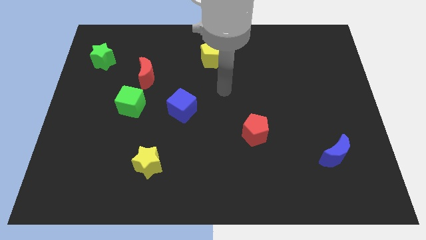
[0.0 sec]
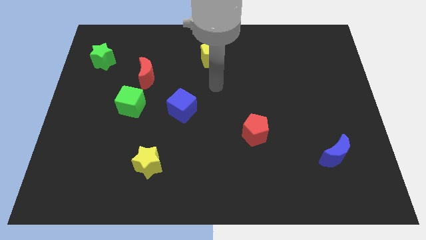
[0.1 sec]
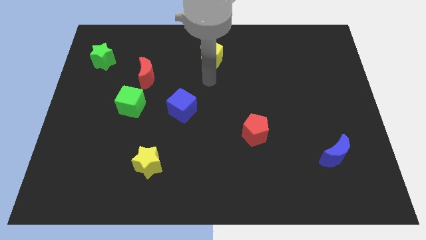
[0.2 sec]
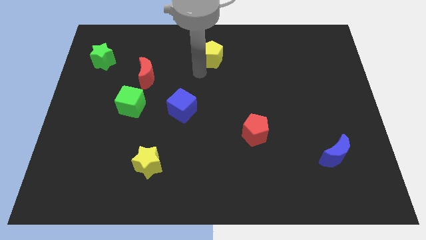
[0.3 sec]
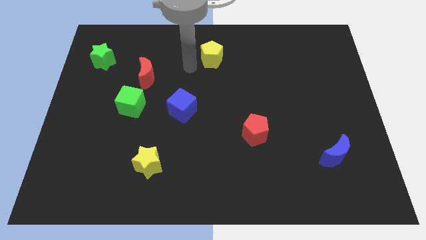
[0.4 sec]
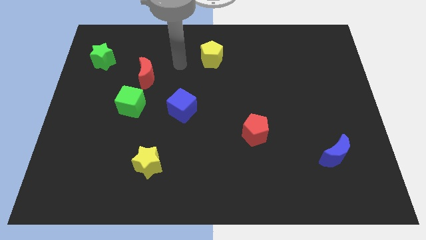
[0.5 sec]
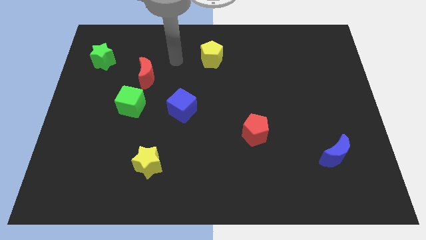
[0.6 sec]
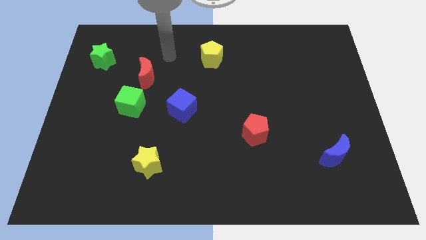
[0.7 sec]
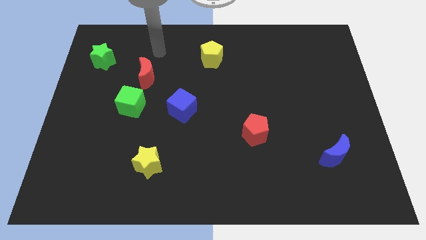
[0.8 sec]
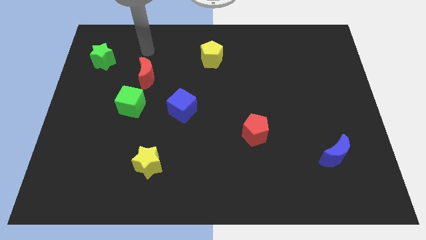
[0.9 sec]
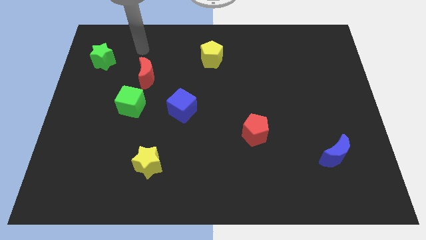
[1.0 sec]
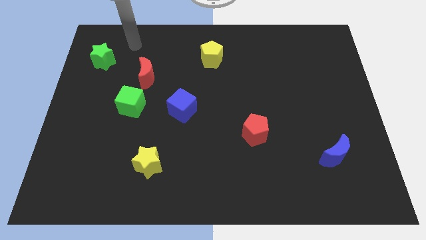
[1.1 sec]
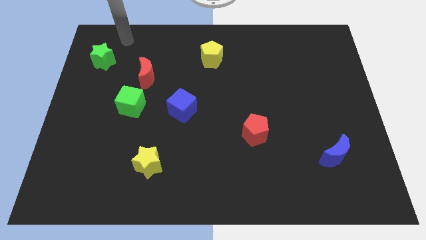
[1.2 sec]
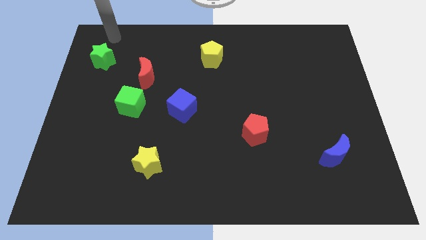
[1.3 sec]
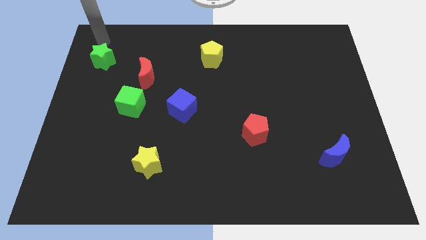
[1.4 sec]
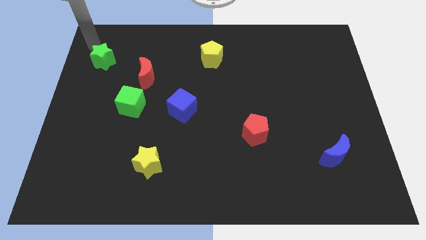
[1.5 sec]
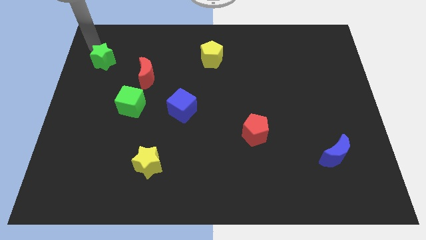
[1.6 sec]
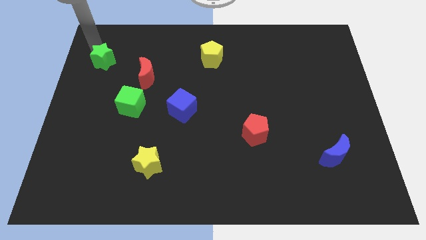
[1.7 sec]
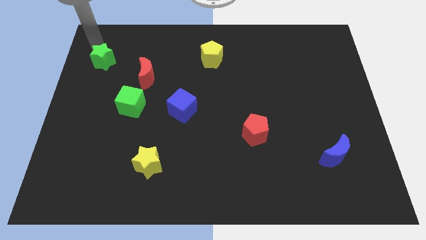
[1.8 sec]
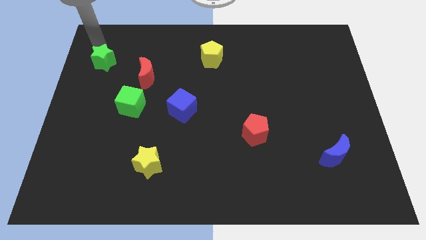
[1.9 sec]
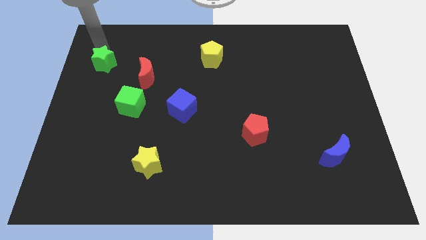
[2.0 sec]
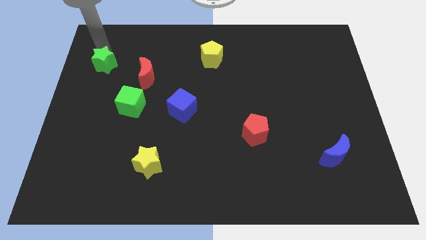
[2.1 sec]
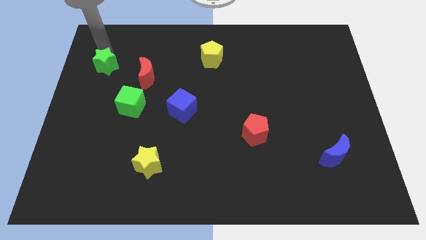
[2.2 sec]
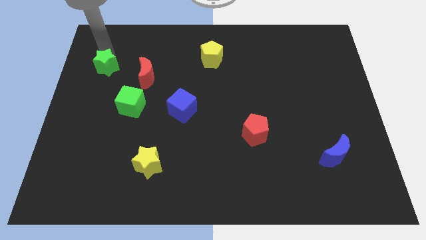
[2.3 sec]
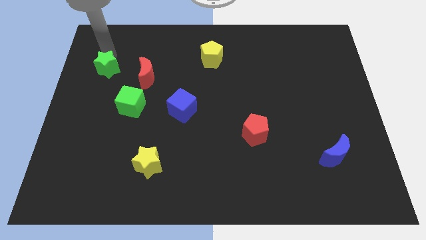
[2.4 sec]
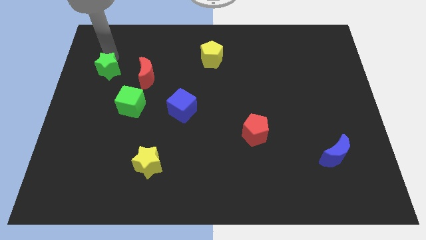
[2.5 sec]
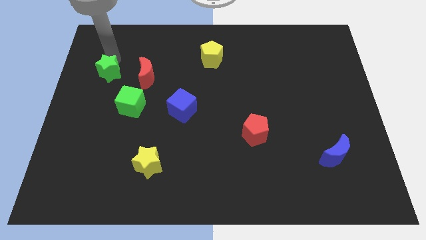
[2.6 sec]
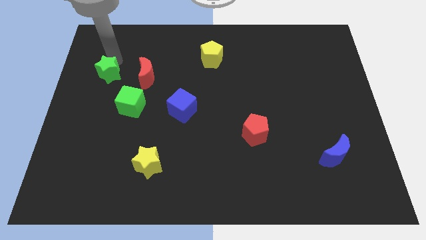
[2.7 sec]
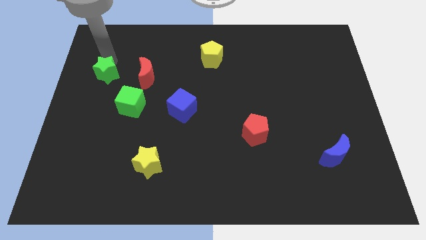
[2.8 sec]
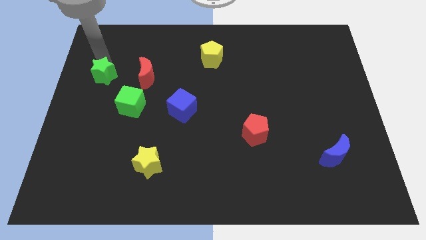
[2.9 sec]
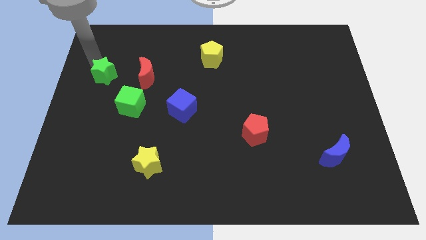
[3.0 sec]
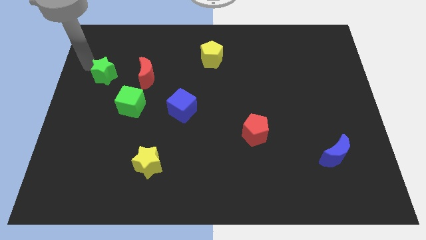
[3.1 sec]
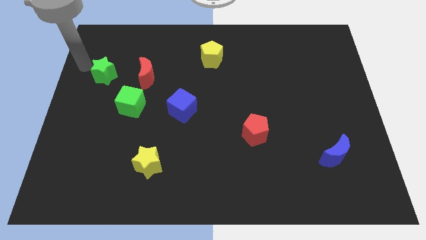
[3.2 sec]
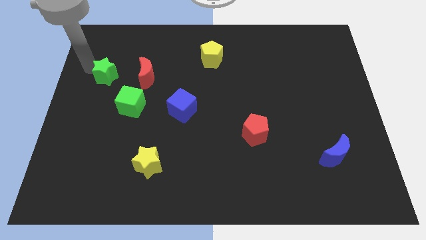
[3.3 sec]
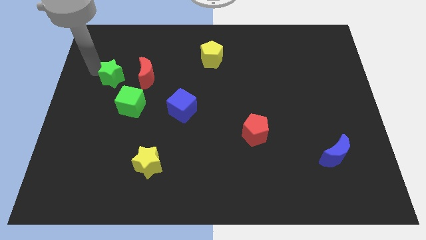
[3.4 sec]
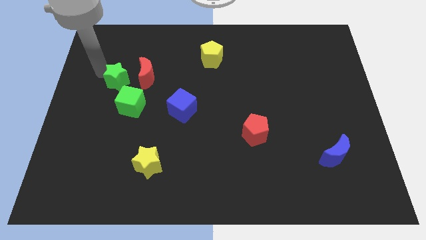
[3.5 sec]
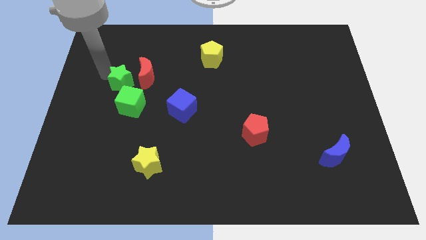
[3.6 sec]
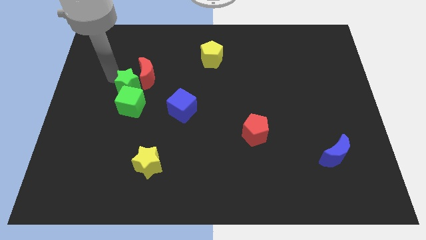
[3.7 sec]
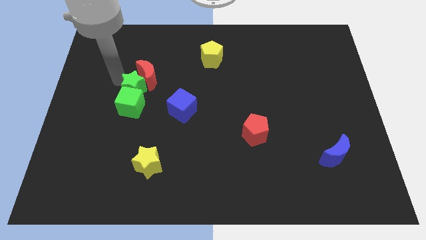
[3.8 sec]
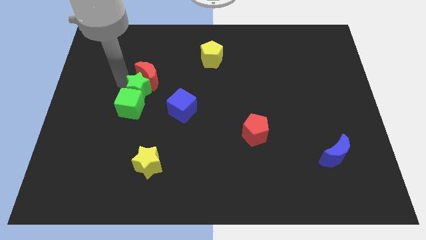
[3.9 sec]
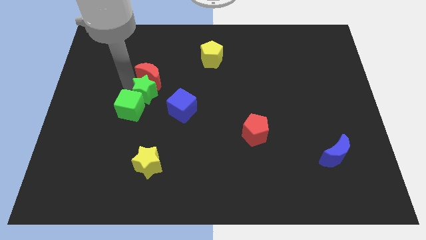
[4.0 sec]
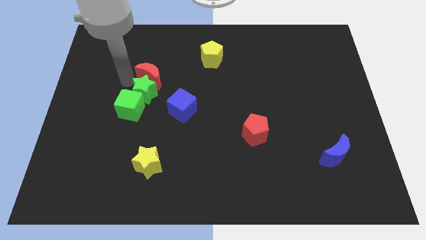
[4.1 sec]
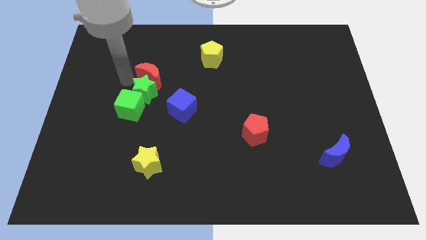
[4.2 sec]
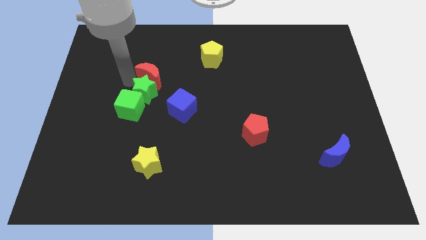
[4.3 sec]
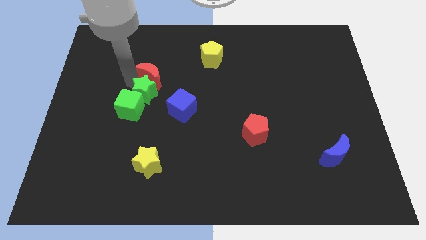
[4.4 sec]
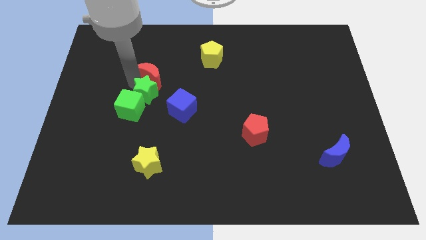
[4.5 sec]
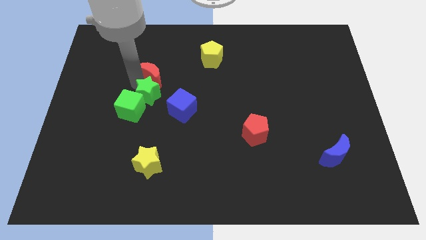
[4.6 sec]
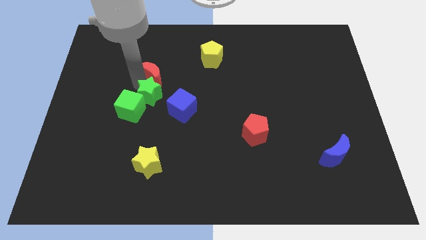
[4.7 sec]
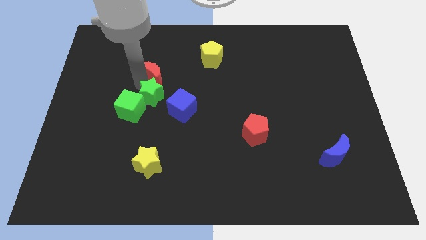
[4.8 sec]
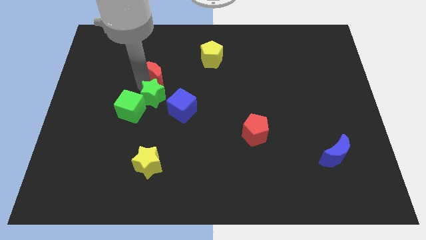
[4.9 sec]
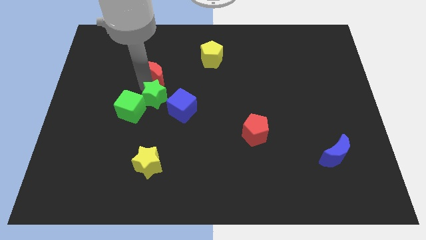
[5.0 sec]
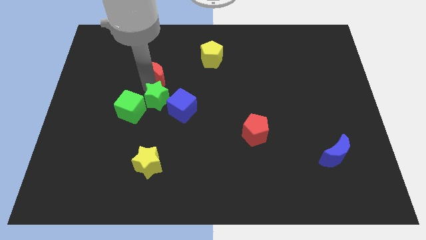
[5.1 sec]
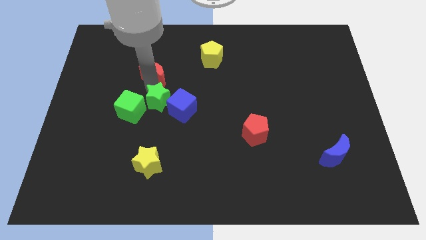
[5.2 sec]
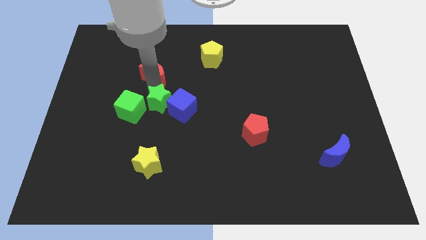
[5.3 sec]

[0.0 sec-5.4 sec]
put the green star towards the blue cube

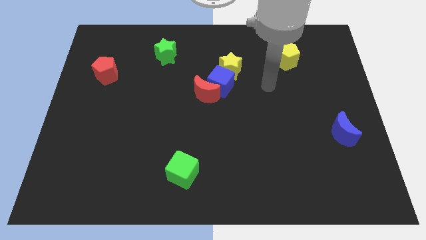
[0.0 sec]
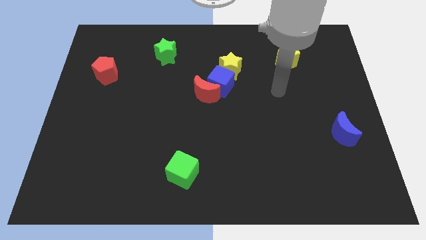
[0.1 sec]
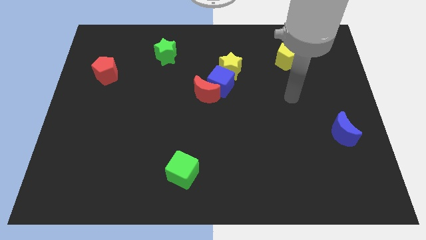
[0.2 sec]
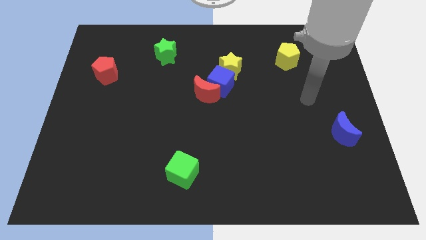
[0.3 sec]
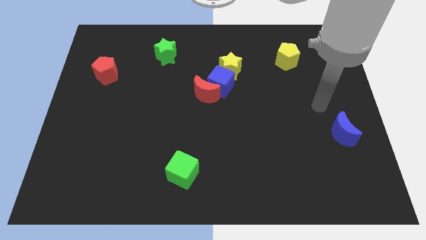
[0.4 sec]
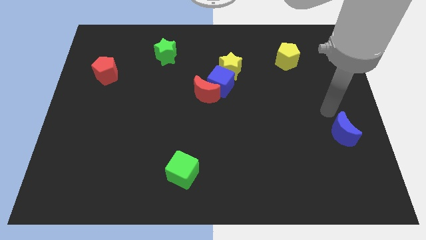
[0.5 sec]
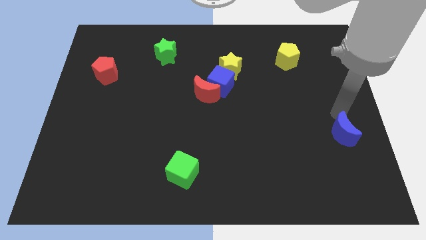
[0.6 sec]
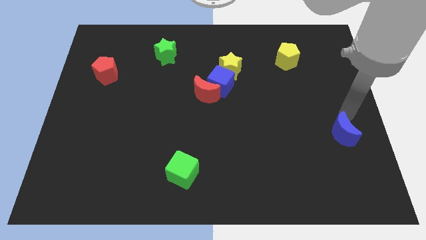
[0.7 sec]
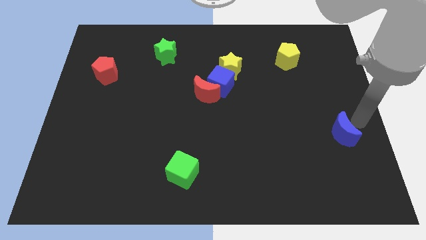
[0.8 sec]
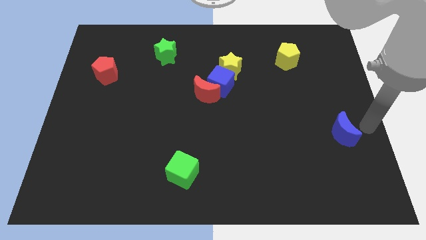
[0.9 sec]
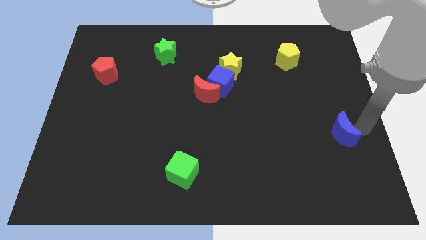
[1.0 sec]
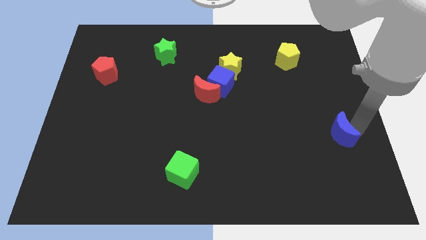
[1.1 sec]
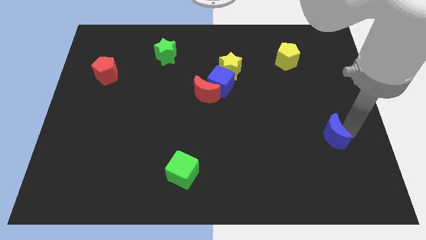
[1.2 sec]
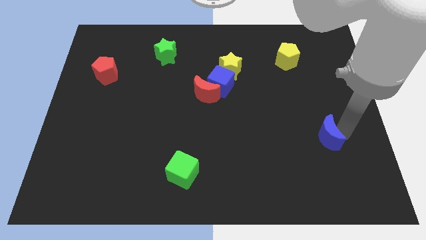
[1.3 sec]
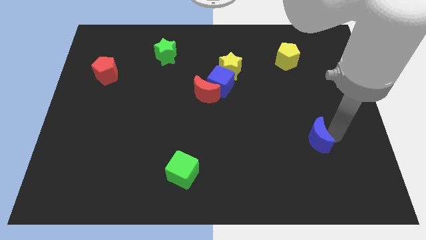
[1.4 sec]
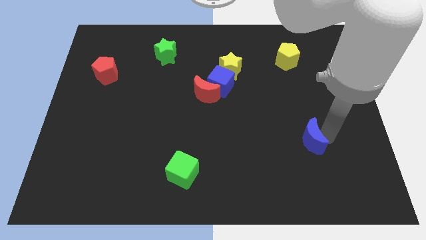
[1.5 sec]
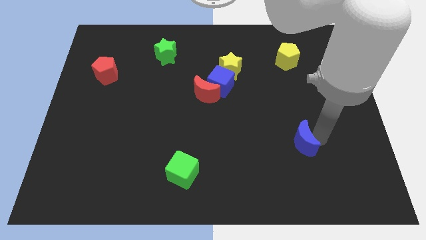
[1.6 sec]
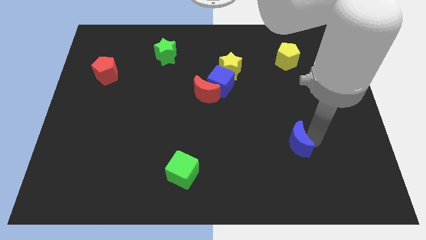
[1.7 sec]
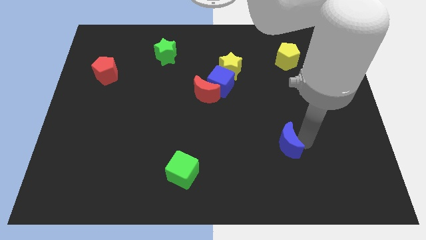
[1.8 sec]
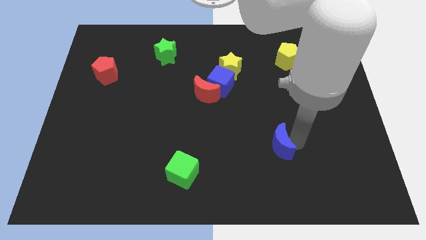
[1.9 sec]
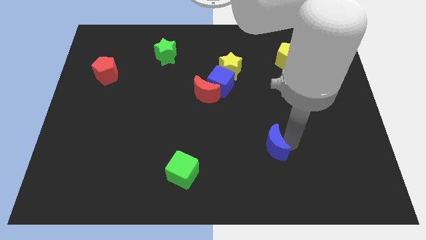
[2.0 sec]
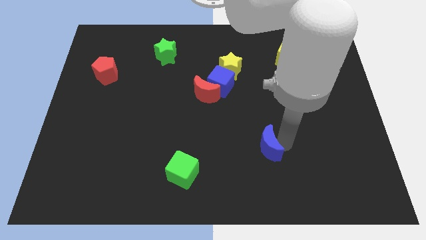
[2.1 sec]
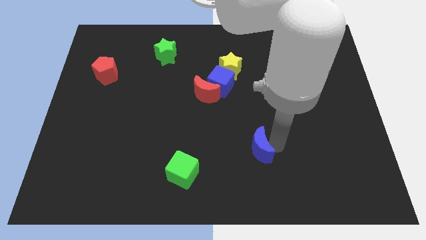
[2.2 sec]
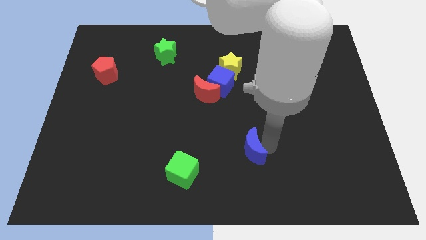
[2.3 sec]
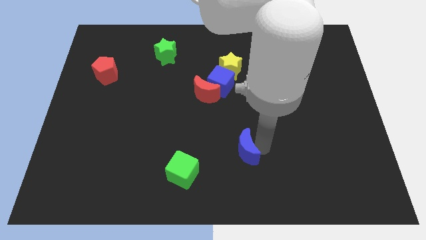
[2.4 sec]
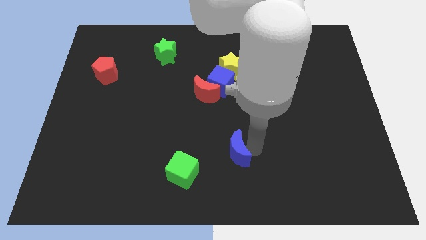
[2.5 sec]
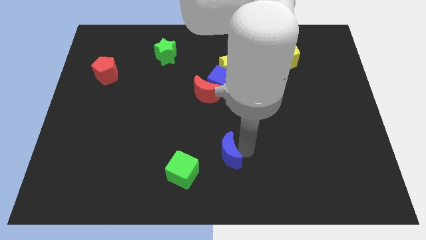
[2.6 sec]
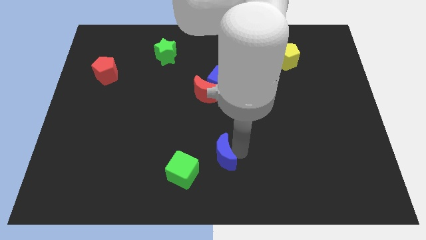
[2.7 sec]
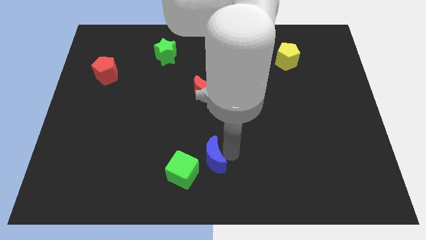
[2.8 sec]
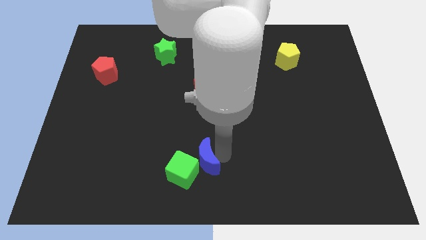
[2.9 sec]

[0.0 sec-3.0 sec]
put the blue moon to the green cube
